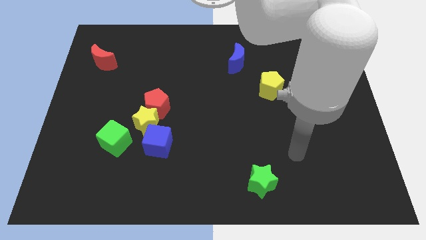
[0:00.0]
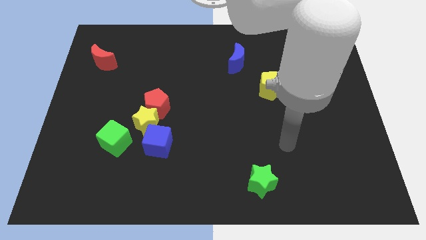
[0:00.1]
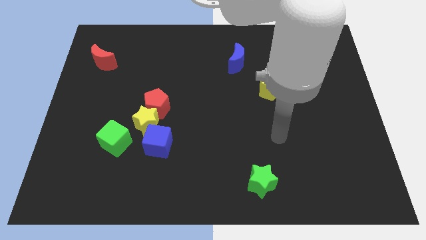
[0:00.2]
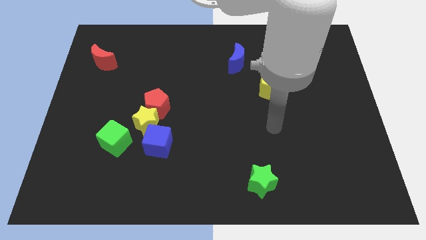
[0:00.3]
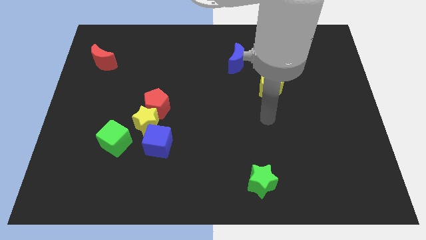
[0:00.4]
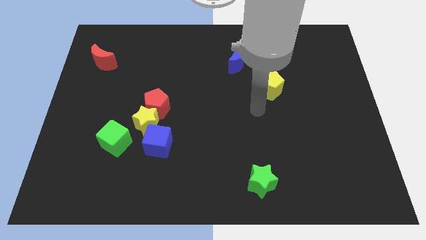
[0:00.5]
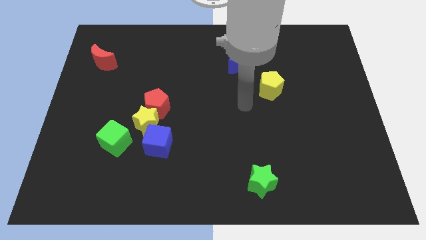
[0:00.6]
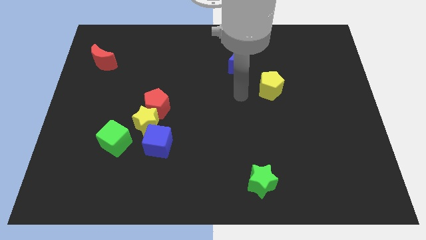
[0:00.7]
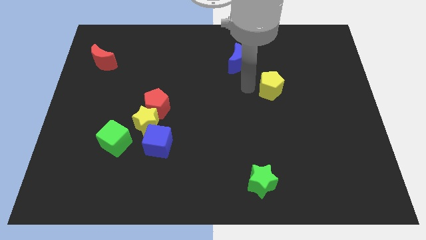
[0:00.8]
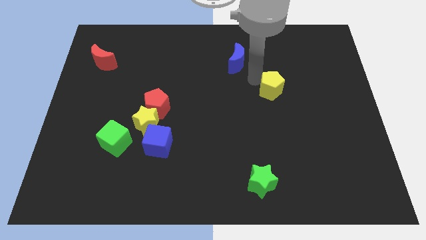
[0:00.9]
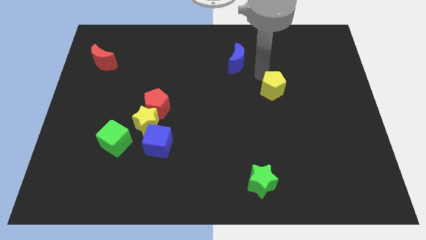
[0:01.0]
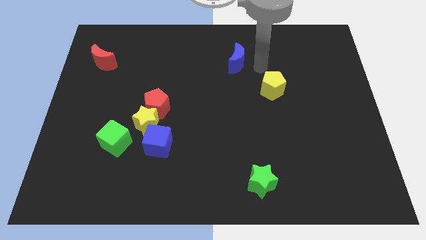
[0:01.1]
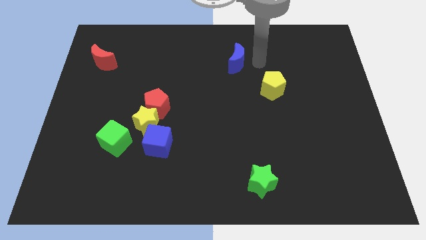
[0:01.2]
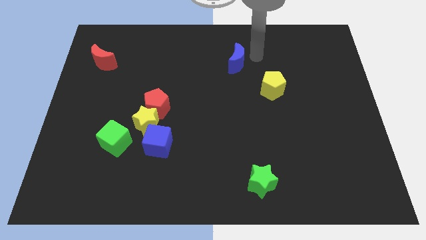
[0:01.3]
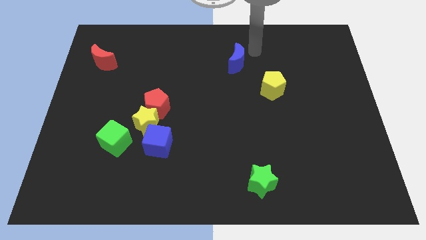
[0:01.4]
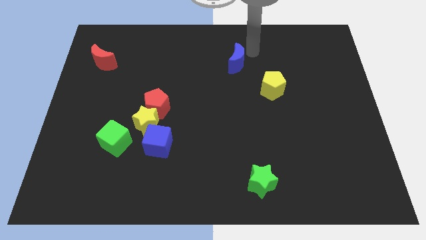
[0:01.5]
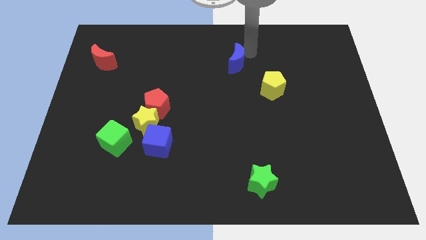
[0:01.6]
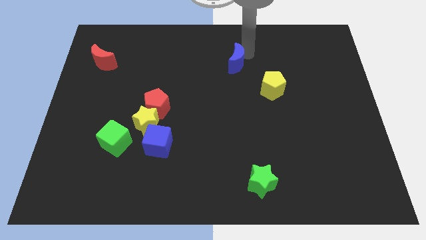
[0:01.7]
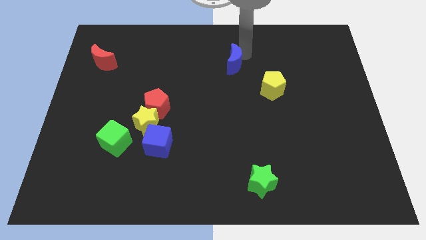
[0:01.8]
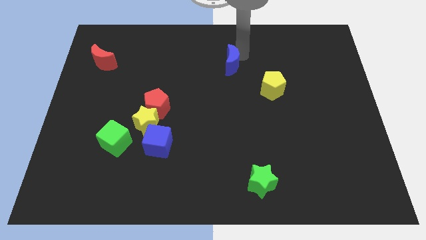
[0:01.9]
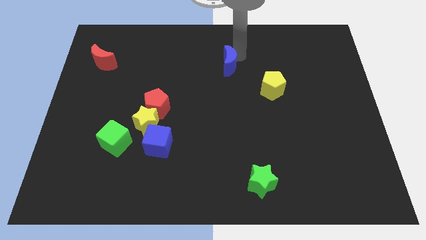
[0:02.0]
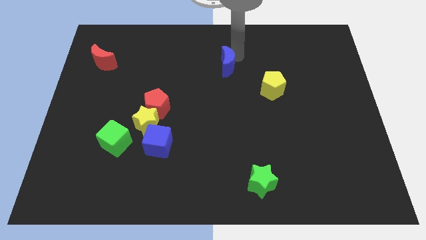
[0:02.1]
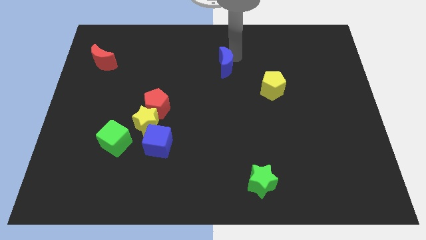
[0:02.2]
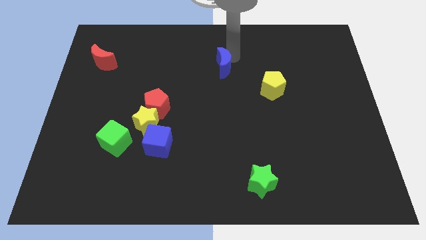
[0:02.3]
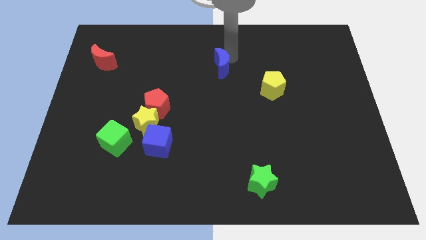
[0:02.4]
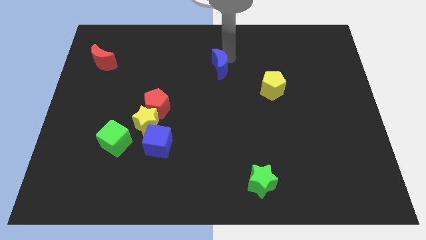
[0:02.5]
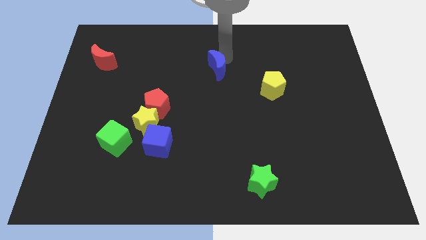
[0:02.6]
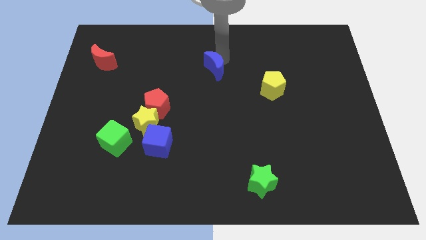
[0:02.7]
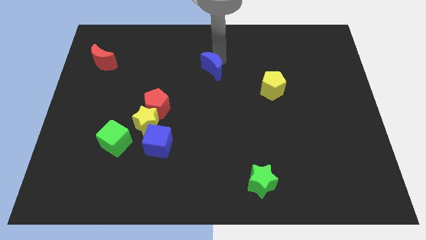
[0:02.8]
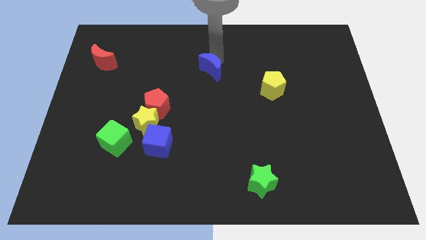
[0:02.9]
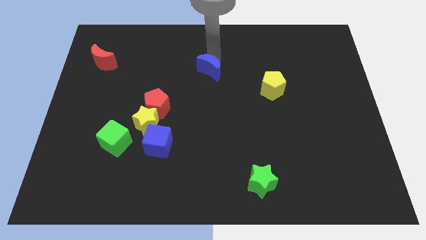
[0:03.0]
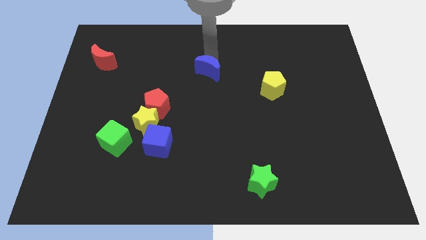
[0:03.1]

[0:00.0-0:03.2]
slide the blue moon diagonally downwards and left slightly

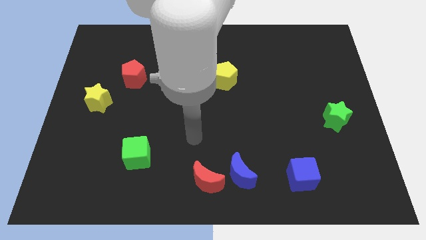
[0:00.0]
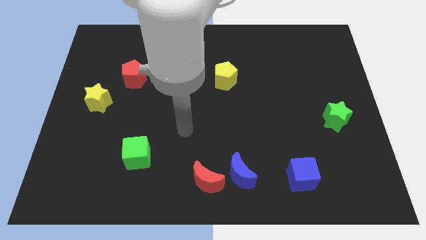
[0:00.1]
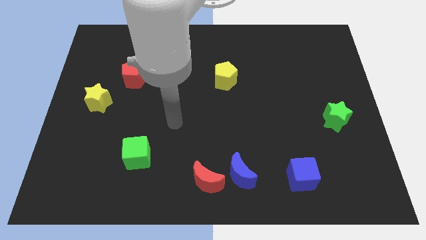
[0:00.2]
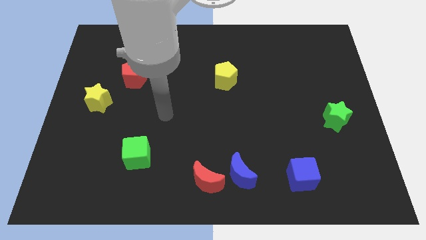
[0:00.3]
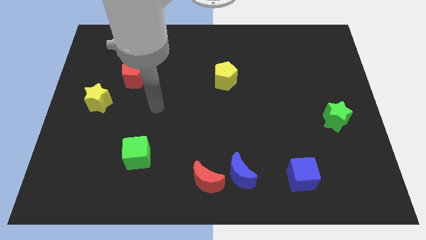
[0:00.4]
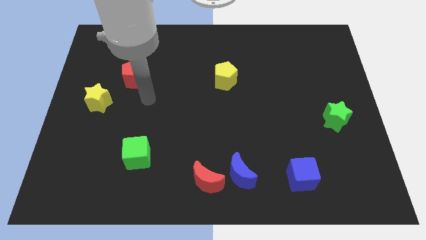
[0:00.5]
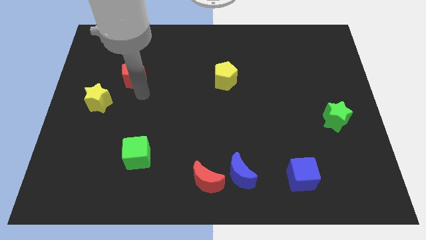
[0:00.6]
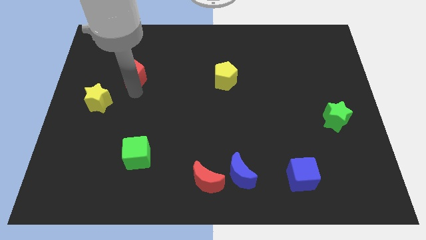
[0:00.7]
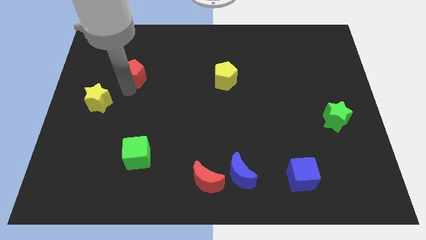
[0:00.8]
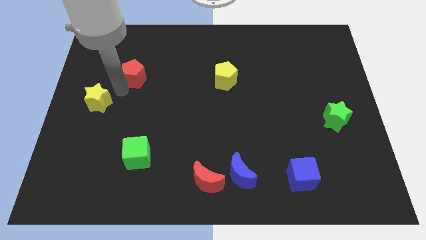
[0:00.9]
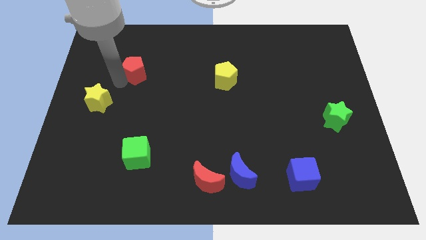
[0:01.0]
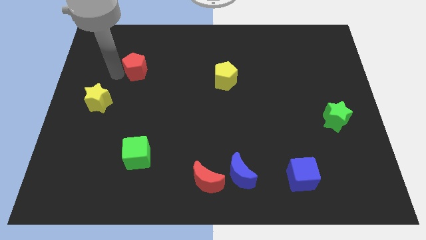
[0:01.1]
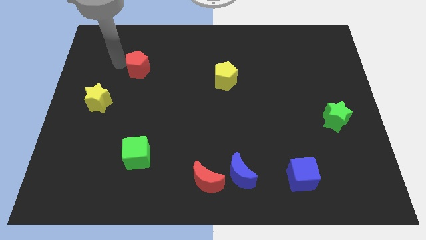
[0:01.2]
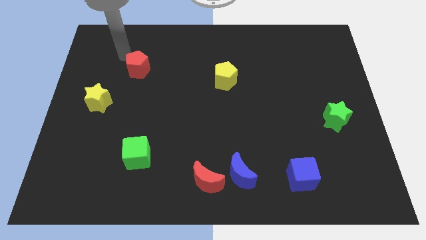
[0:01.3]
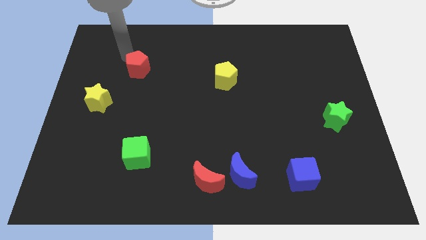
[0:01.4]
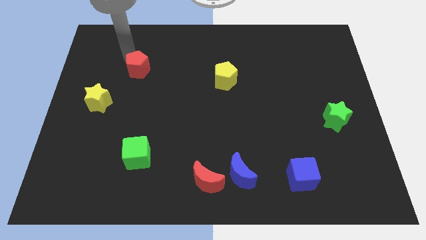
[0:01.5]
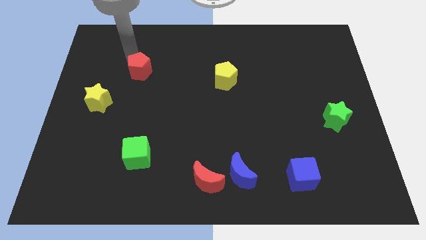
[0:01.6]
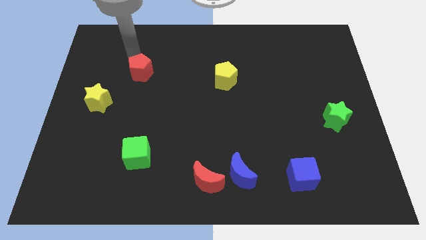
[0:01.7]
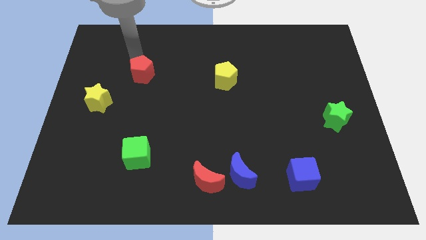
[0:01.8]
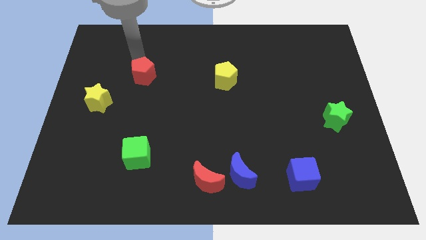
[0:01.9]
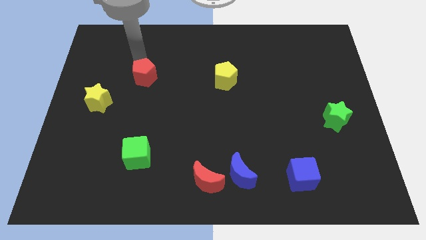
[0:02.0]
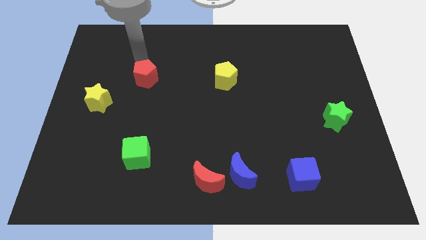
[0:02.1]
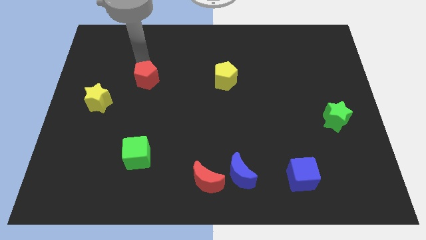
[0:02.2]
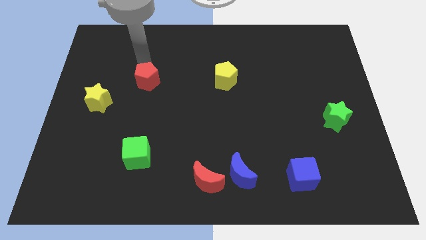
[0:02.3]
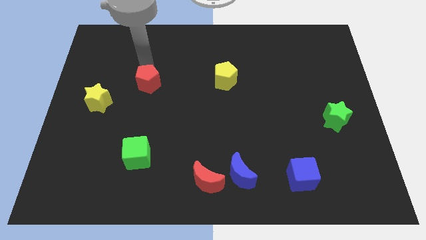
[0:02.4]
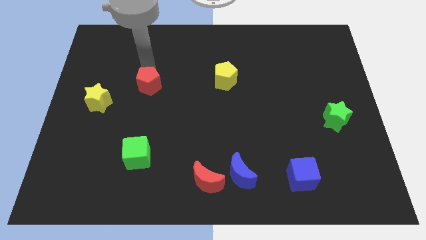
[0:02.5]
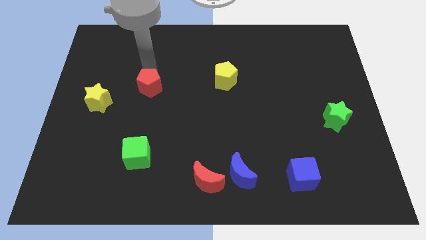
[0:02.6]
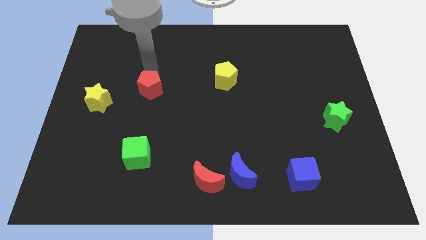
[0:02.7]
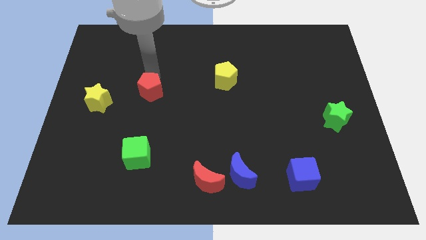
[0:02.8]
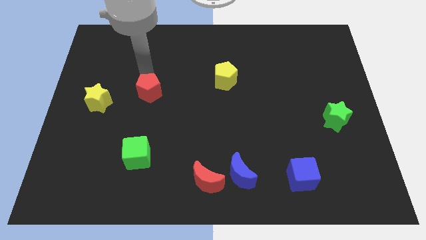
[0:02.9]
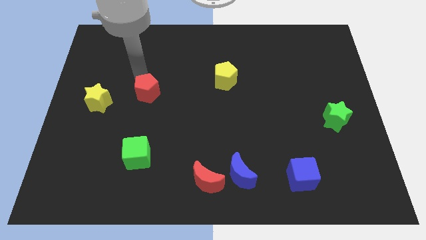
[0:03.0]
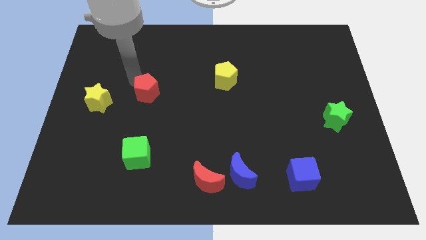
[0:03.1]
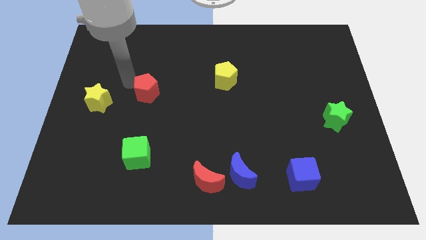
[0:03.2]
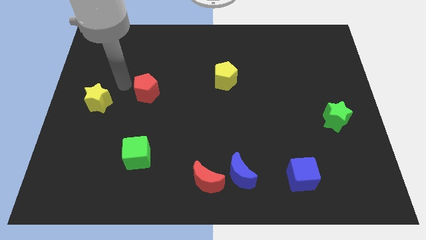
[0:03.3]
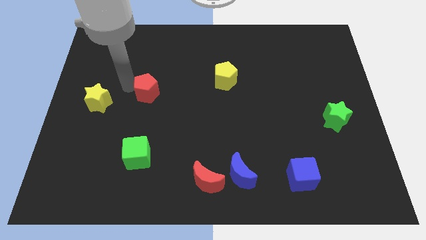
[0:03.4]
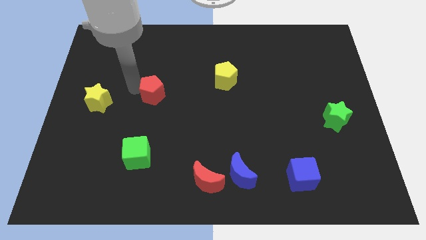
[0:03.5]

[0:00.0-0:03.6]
push the red pentagon down and then to the right a little

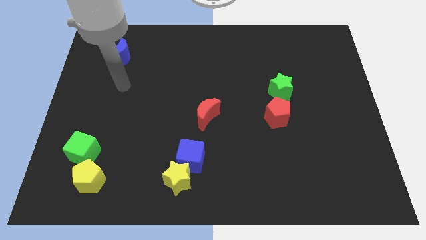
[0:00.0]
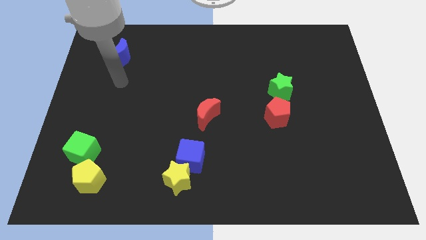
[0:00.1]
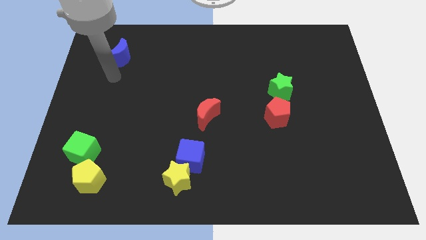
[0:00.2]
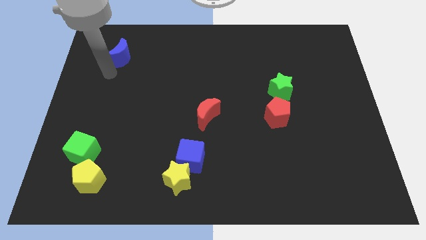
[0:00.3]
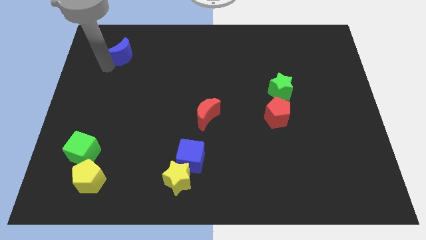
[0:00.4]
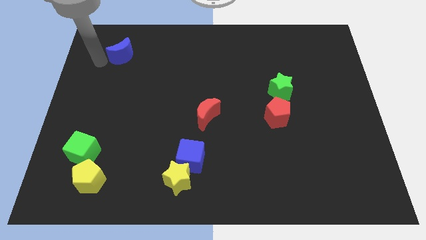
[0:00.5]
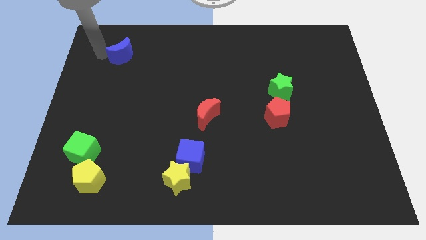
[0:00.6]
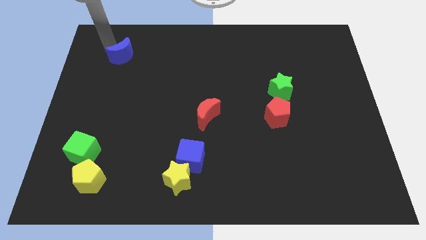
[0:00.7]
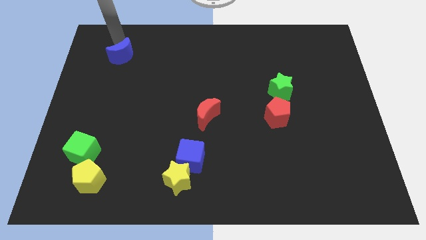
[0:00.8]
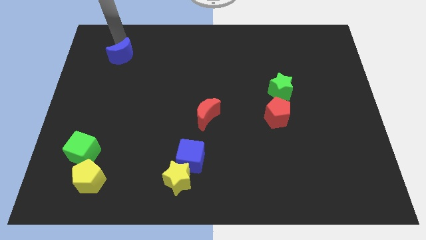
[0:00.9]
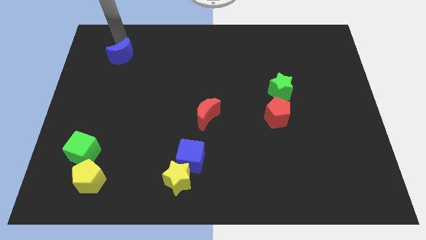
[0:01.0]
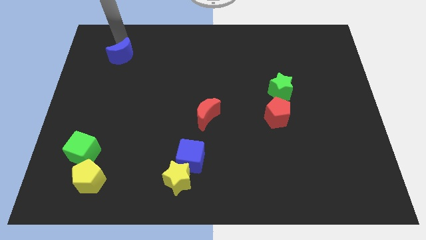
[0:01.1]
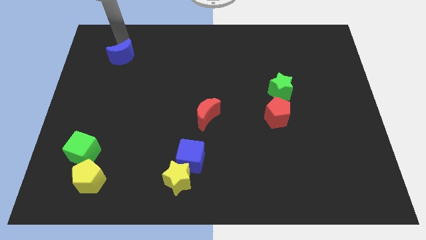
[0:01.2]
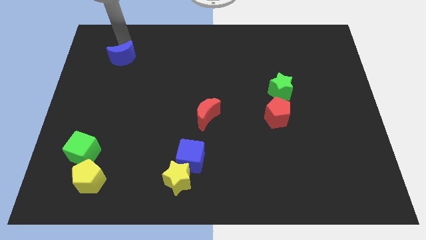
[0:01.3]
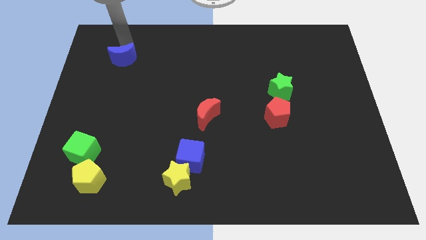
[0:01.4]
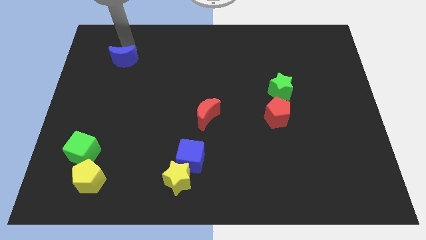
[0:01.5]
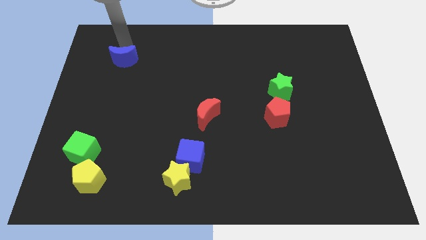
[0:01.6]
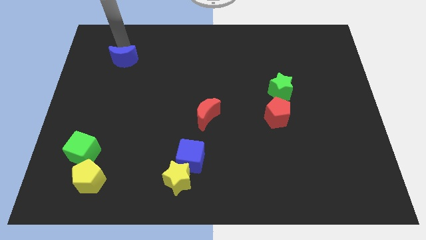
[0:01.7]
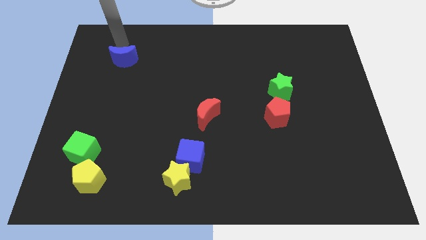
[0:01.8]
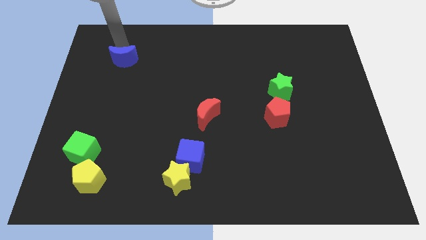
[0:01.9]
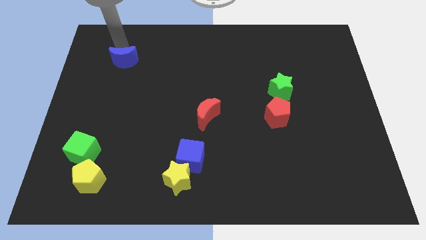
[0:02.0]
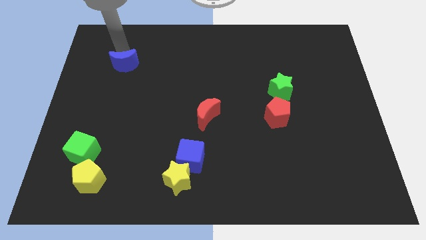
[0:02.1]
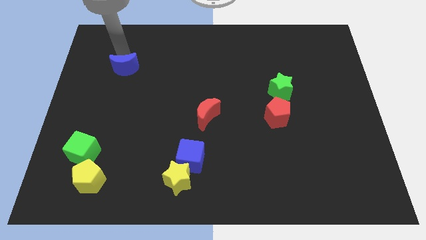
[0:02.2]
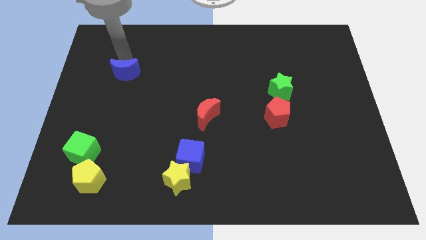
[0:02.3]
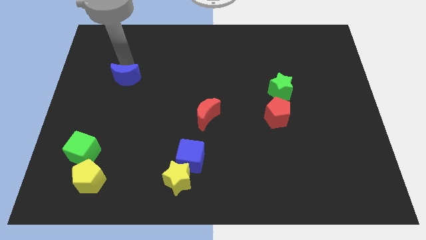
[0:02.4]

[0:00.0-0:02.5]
slide the blue moon somewhat down
